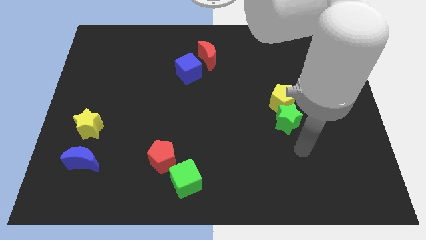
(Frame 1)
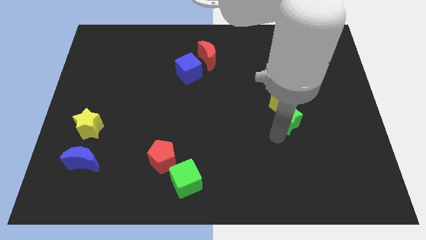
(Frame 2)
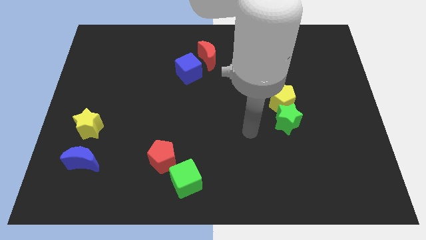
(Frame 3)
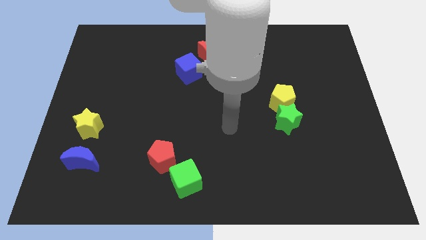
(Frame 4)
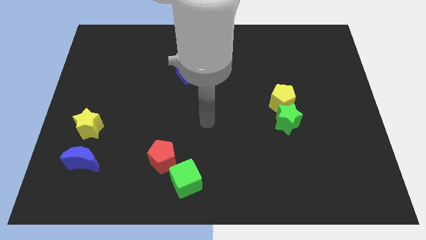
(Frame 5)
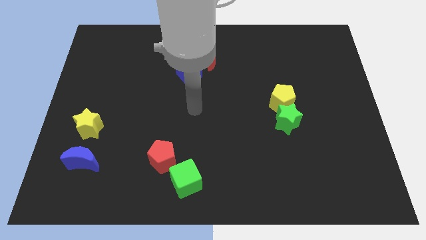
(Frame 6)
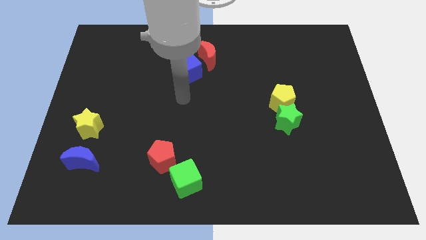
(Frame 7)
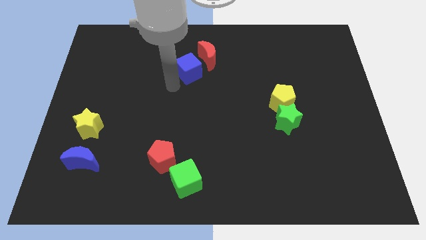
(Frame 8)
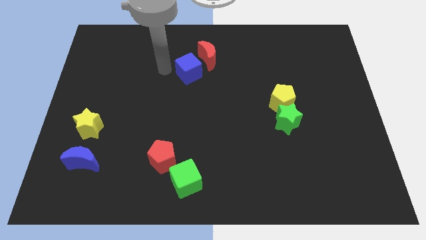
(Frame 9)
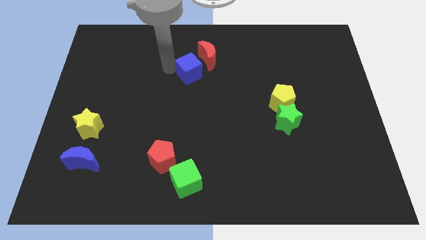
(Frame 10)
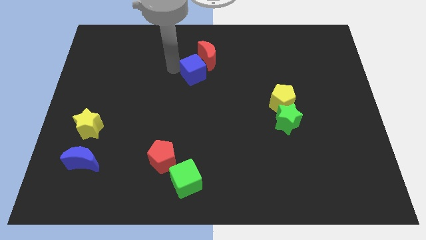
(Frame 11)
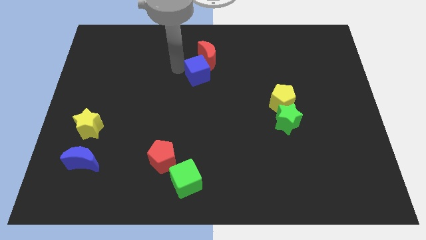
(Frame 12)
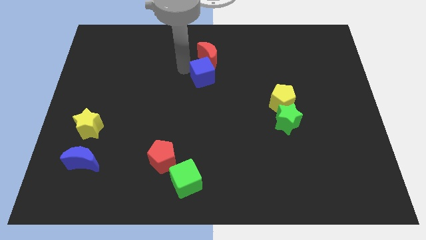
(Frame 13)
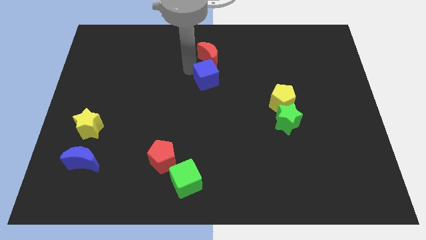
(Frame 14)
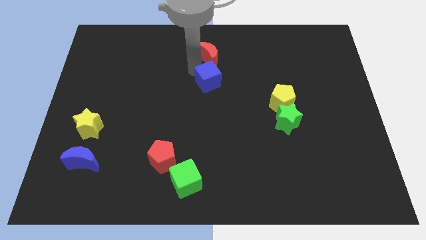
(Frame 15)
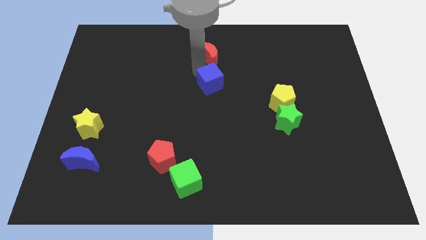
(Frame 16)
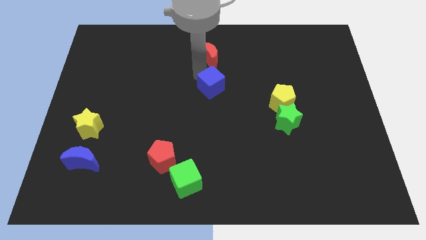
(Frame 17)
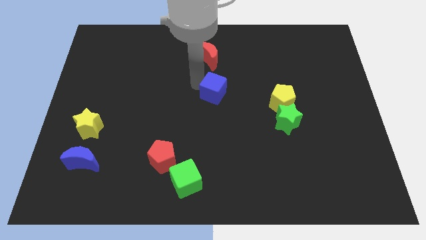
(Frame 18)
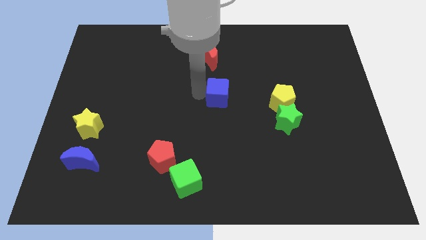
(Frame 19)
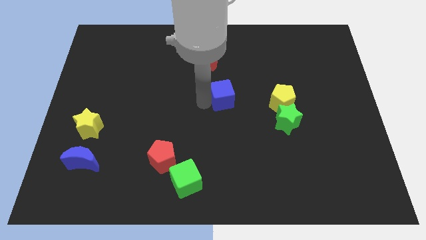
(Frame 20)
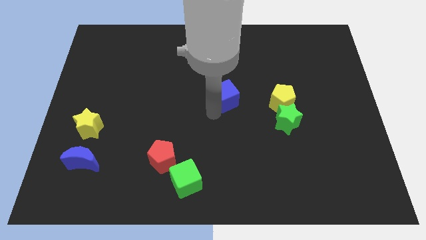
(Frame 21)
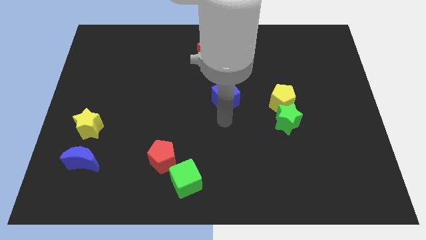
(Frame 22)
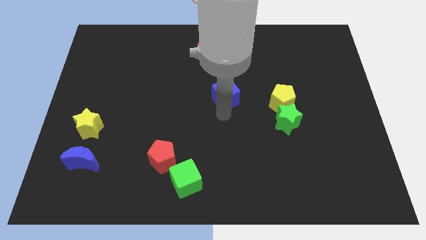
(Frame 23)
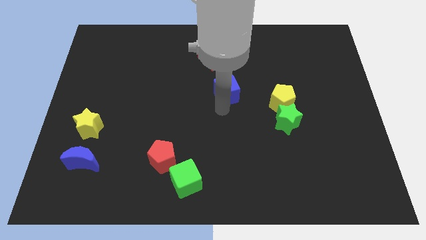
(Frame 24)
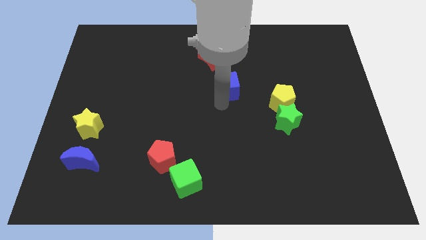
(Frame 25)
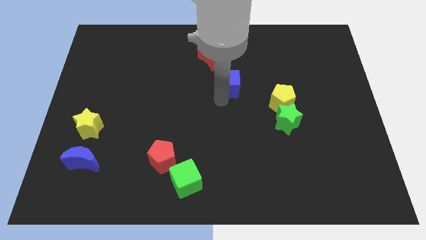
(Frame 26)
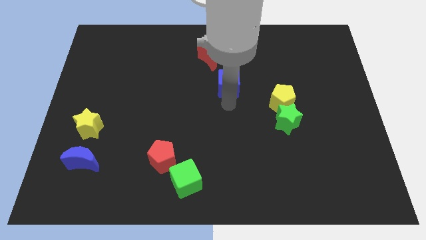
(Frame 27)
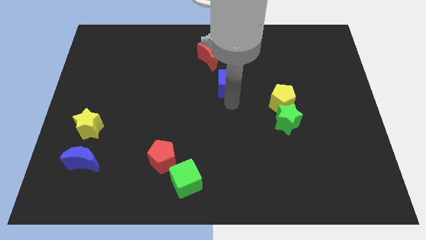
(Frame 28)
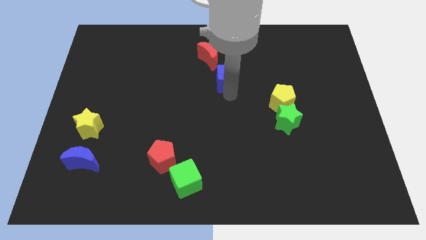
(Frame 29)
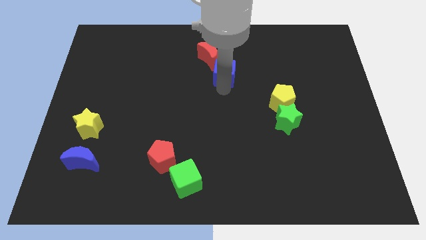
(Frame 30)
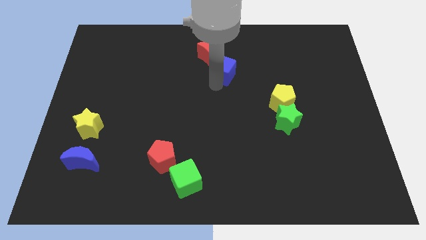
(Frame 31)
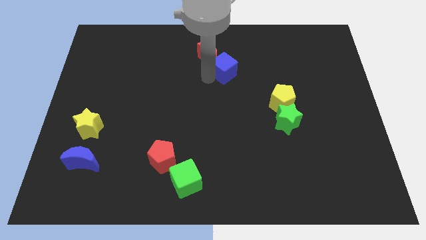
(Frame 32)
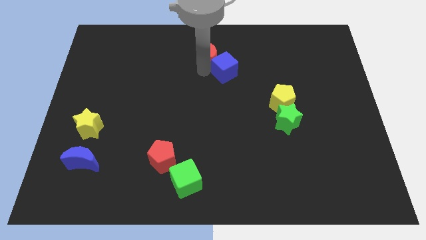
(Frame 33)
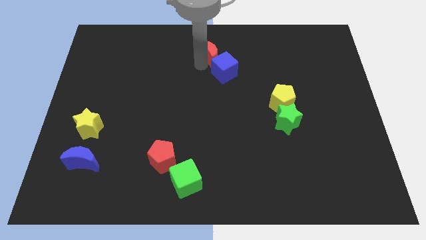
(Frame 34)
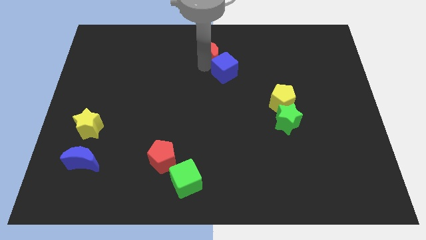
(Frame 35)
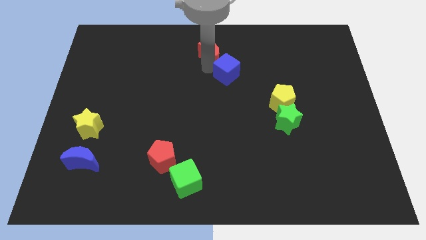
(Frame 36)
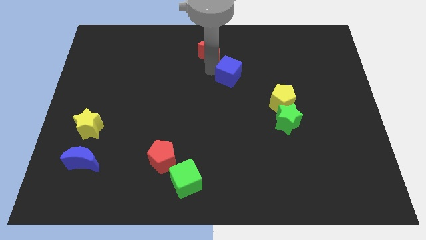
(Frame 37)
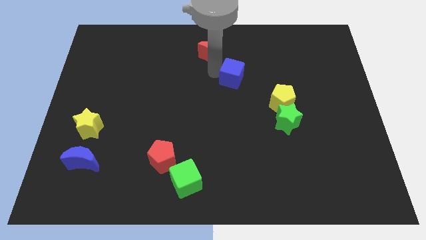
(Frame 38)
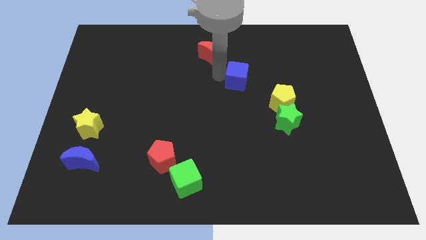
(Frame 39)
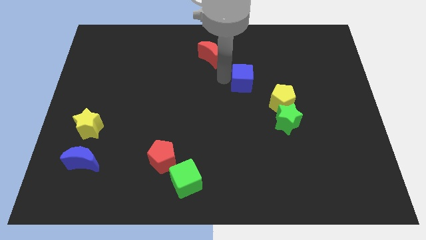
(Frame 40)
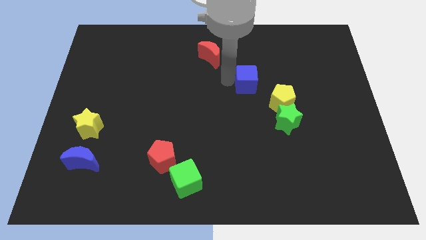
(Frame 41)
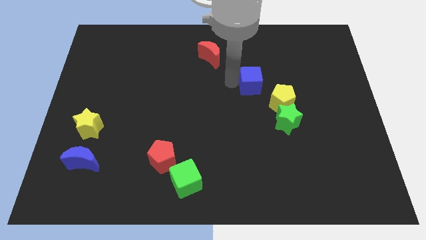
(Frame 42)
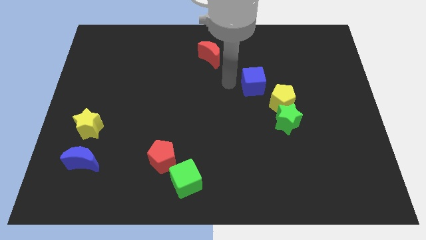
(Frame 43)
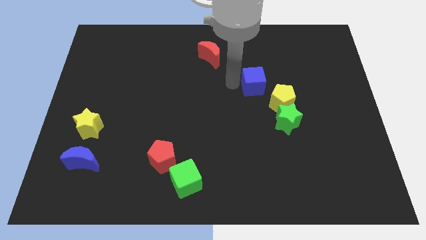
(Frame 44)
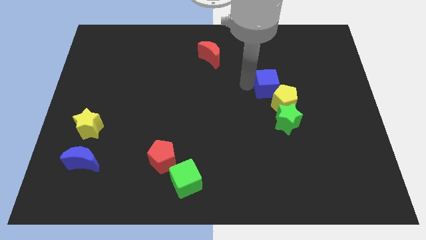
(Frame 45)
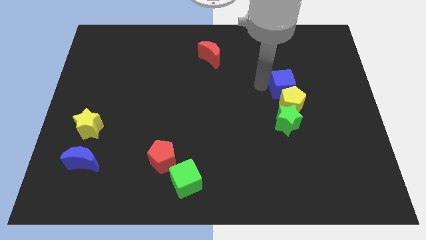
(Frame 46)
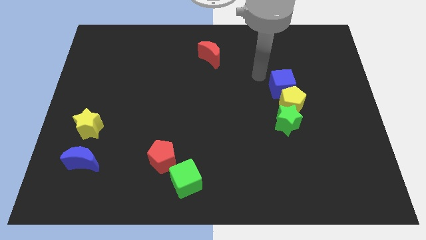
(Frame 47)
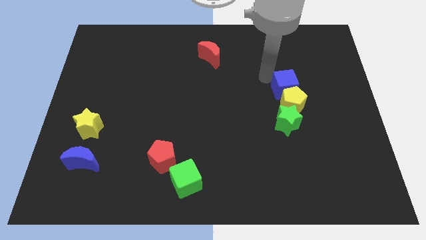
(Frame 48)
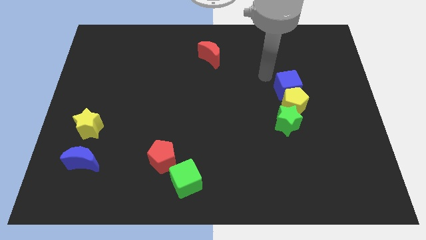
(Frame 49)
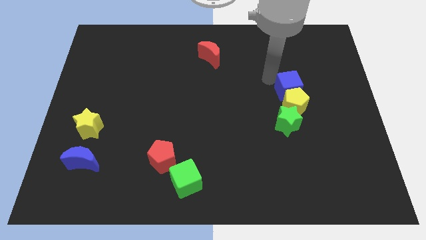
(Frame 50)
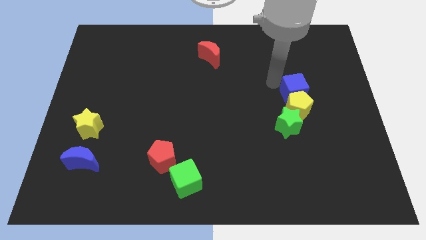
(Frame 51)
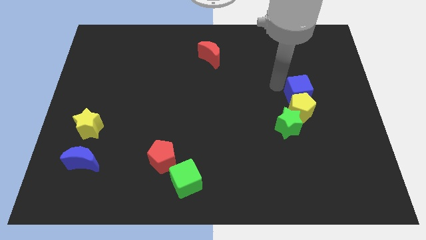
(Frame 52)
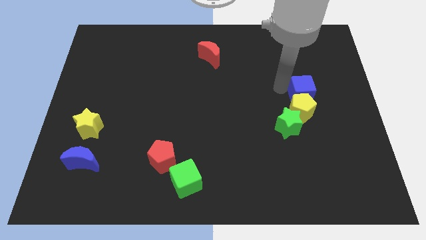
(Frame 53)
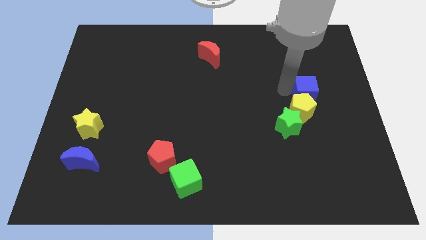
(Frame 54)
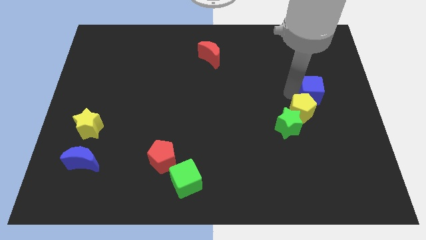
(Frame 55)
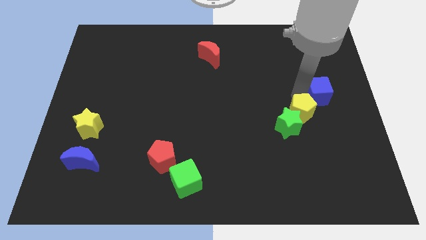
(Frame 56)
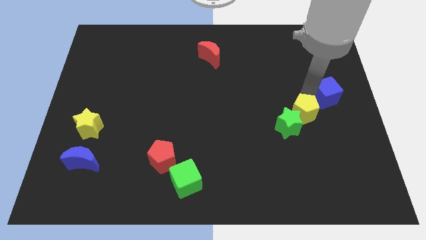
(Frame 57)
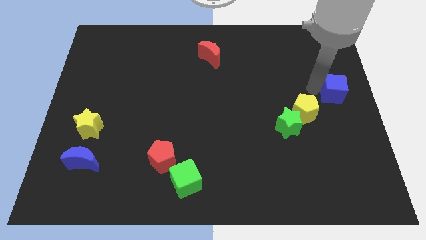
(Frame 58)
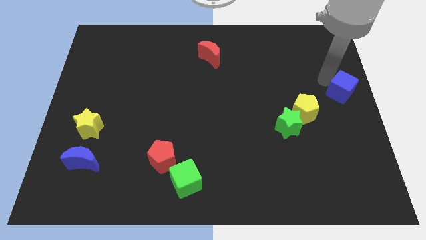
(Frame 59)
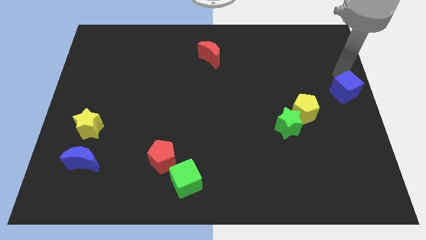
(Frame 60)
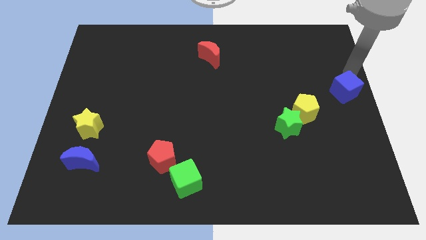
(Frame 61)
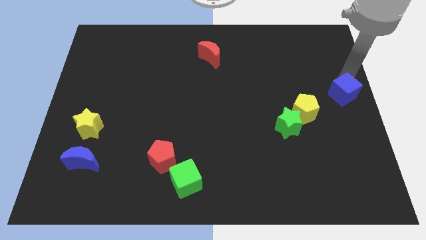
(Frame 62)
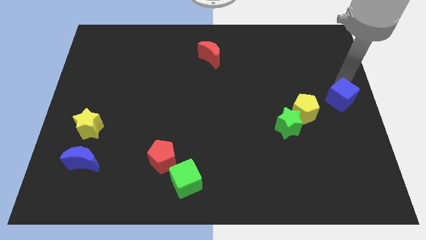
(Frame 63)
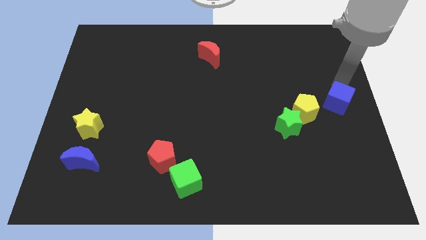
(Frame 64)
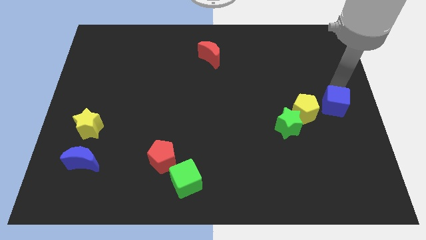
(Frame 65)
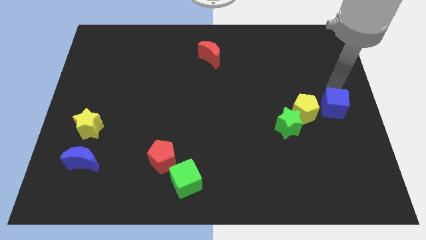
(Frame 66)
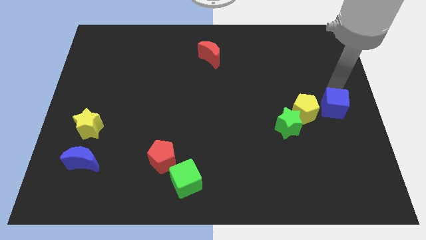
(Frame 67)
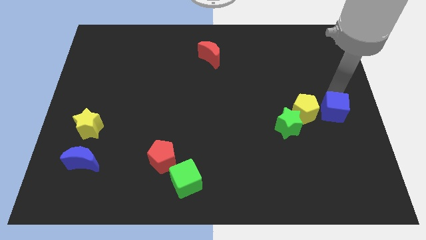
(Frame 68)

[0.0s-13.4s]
push the blue cube to the right side of the green star
